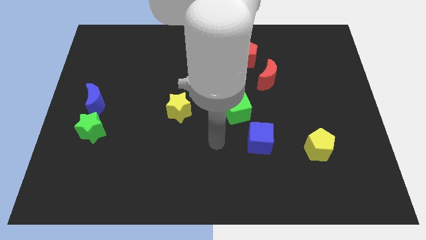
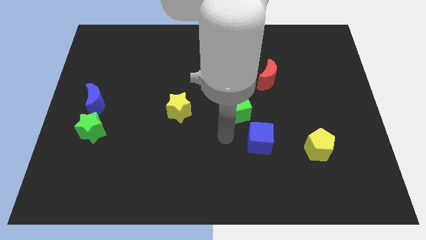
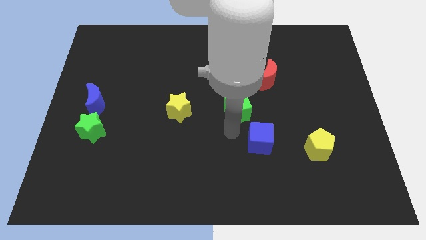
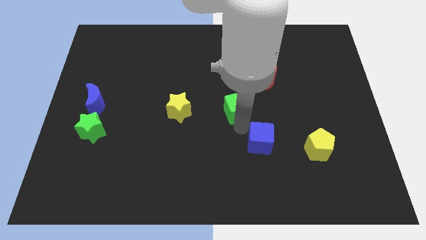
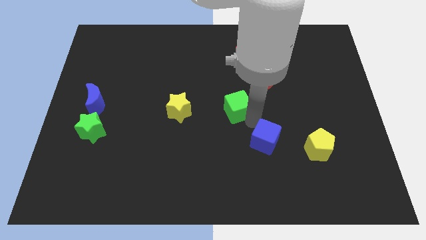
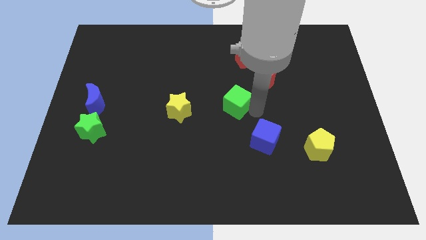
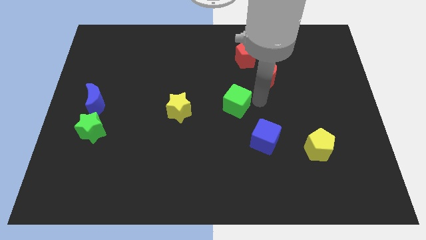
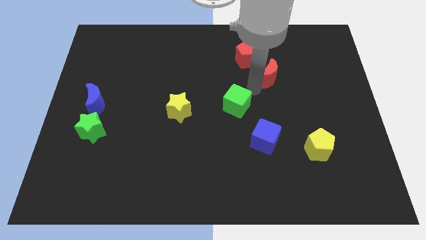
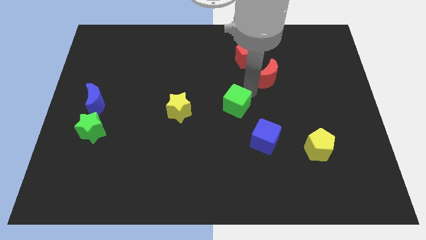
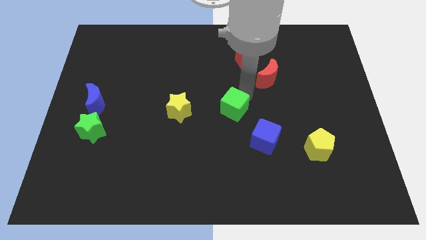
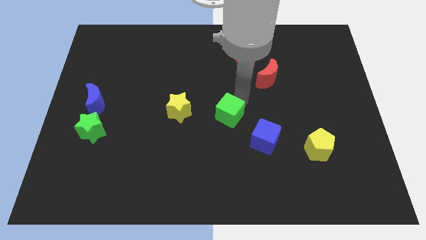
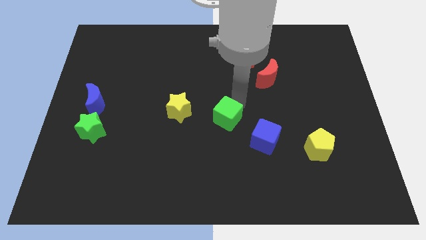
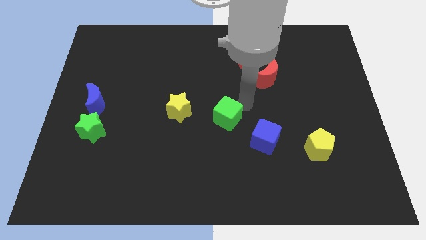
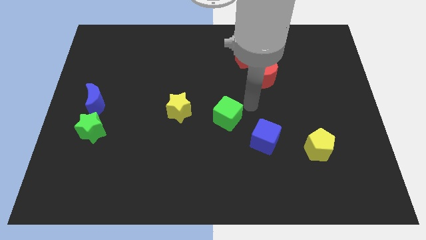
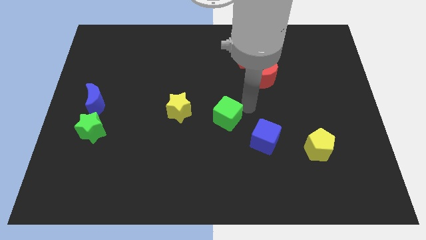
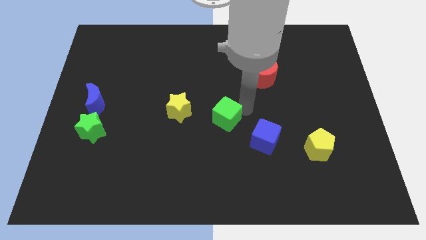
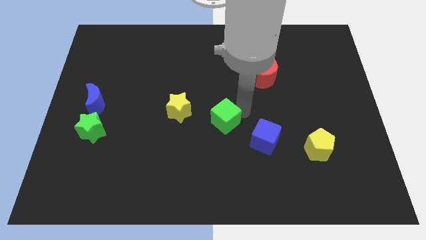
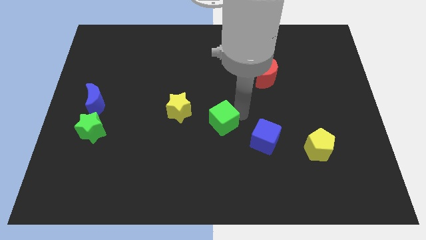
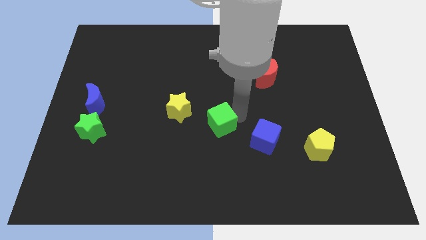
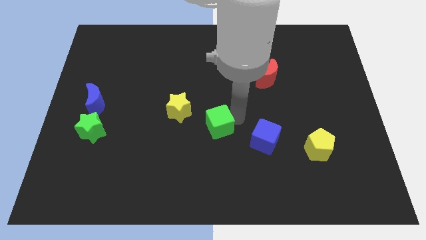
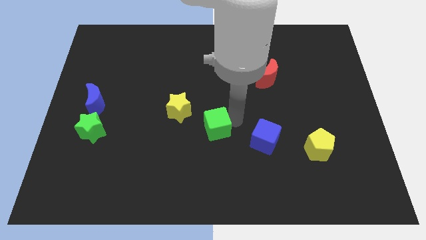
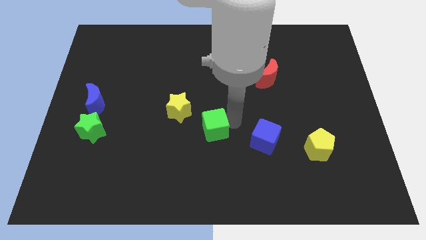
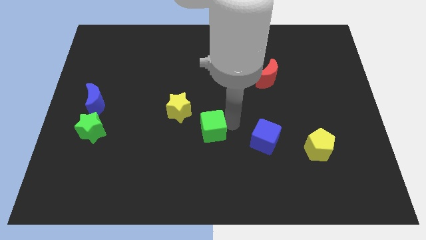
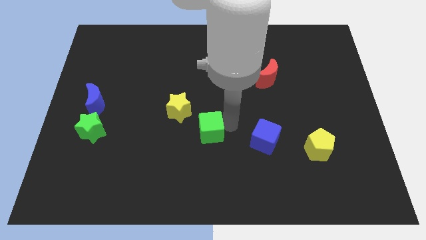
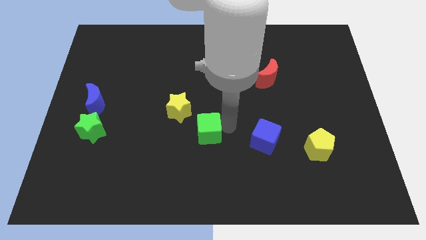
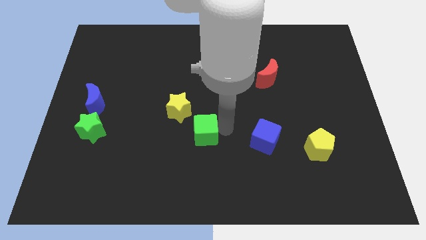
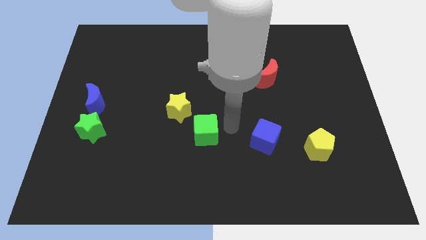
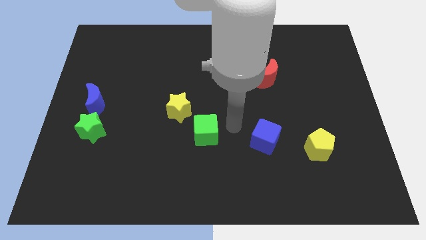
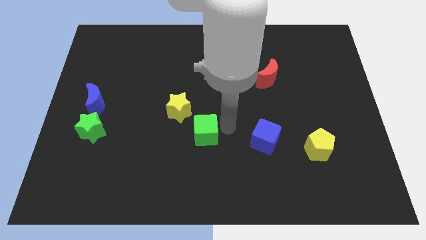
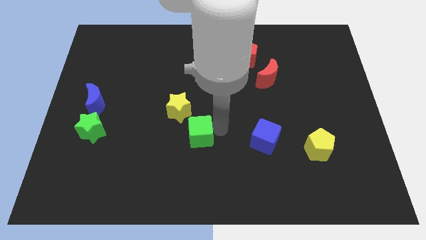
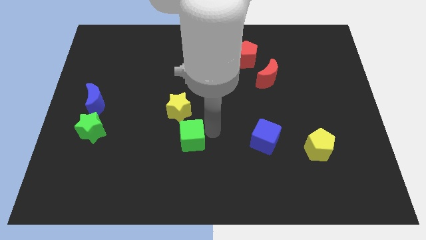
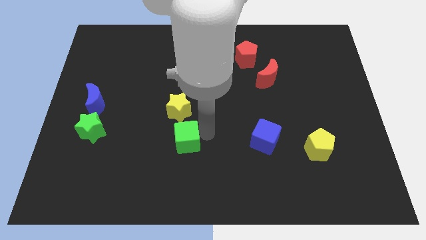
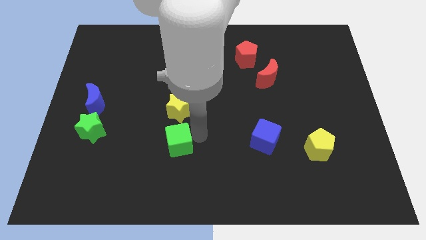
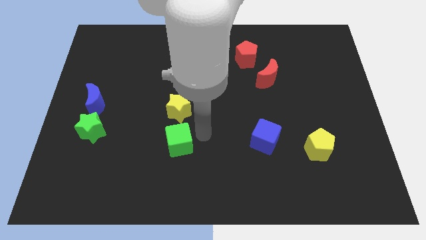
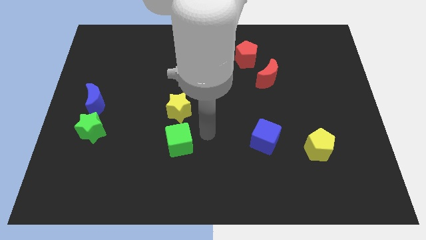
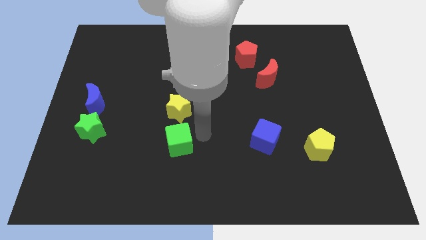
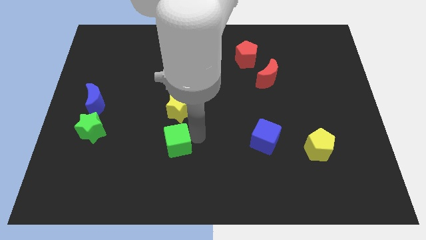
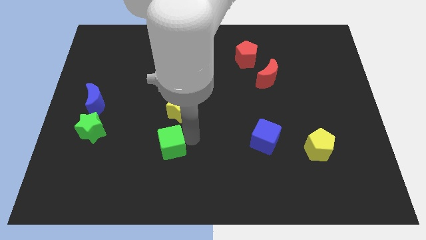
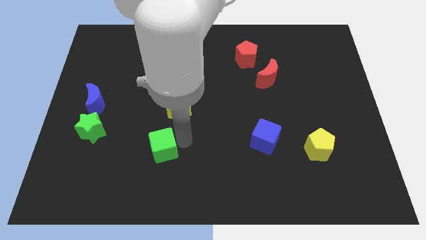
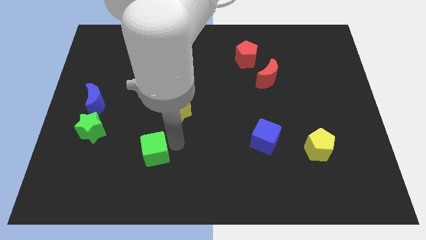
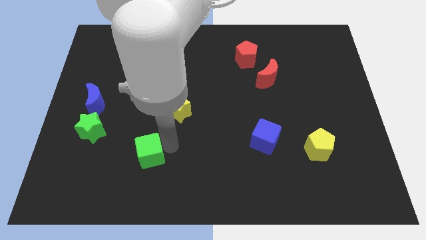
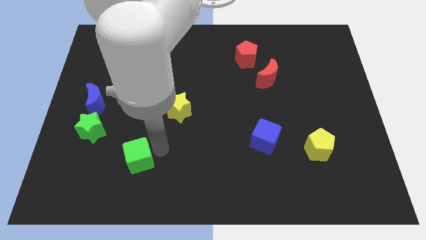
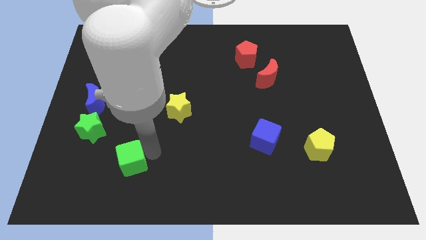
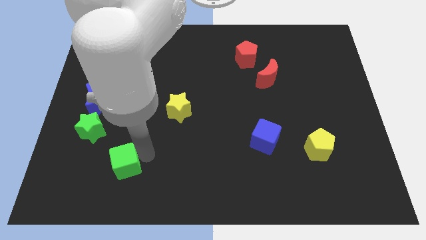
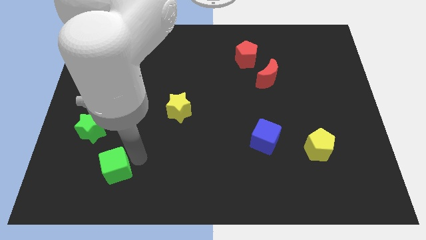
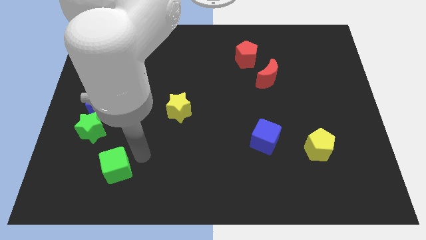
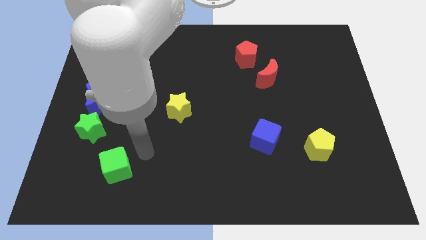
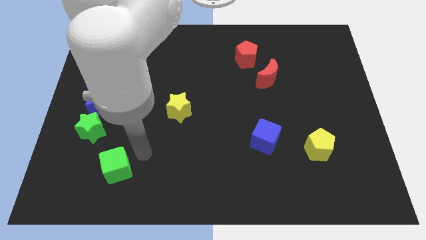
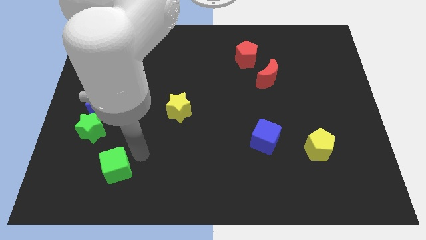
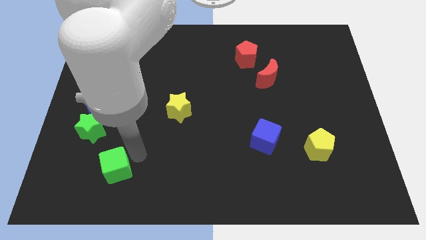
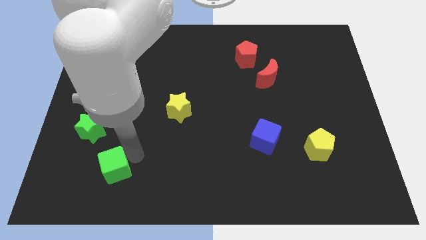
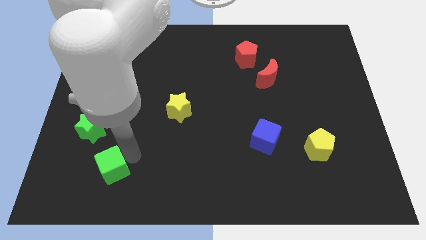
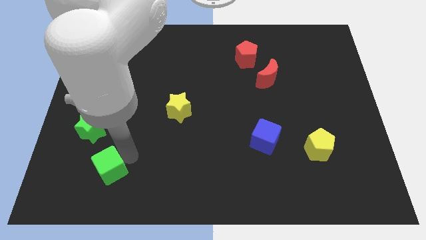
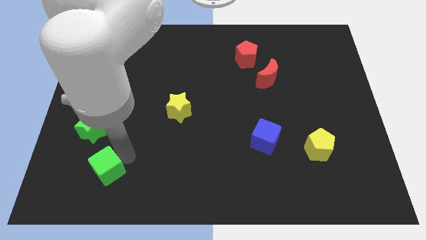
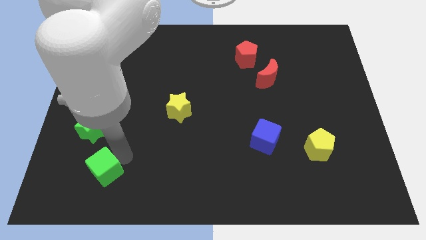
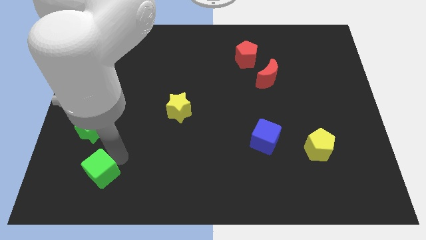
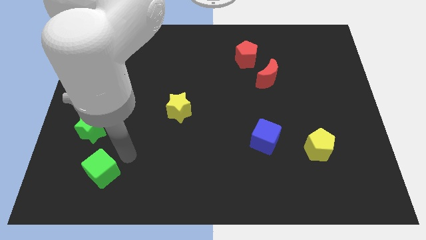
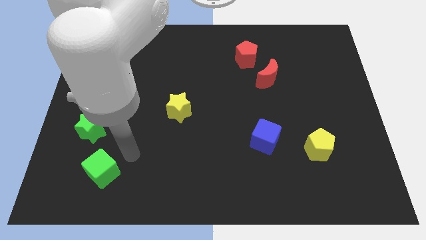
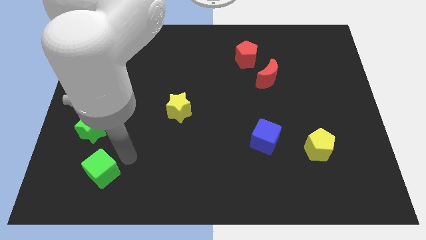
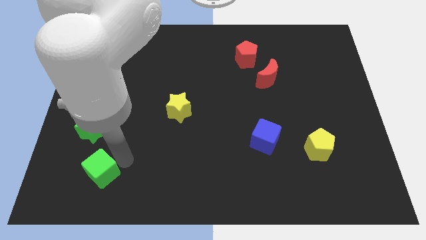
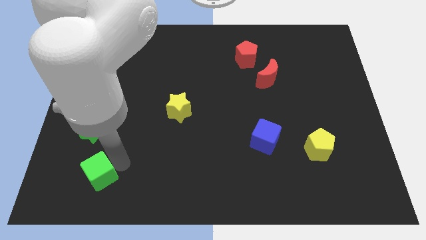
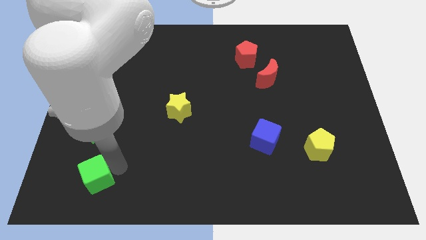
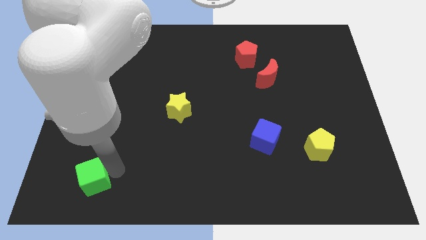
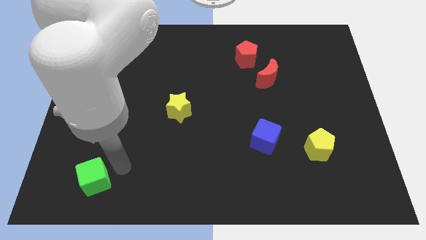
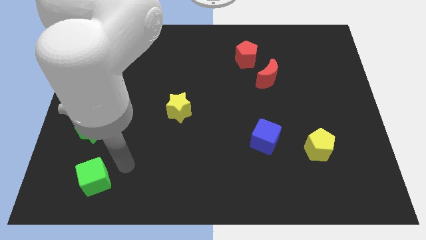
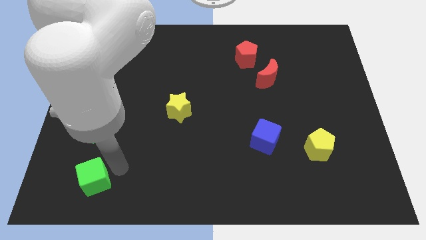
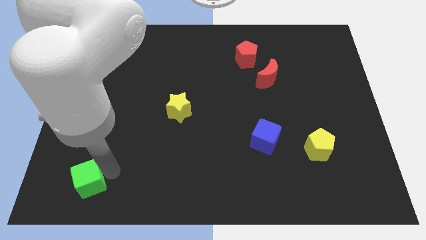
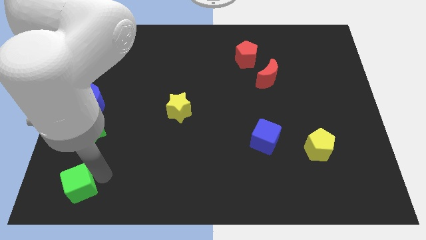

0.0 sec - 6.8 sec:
move the green cube to the lower left corner
